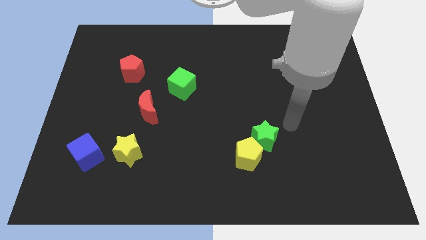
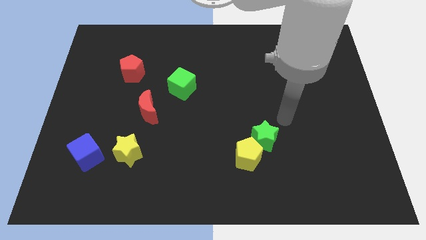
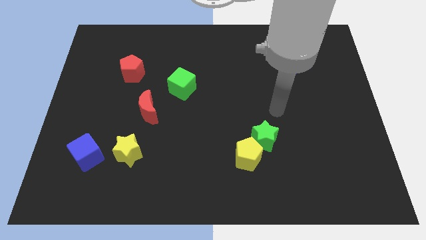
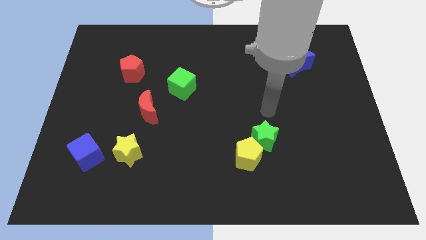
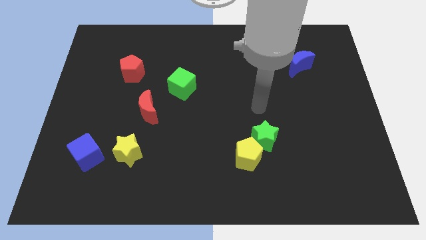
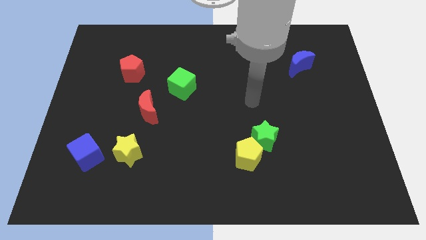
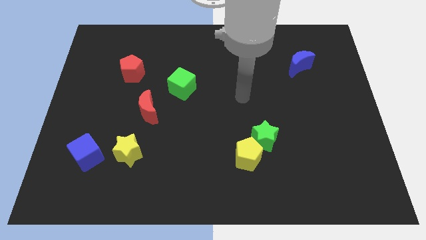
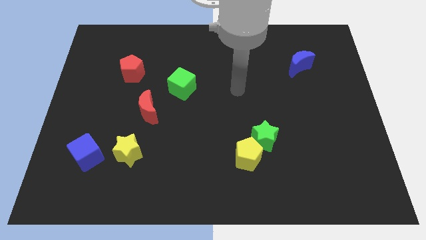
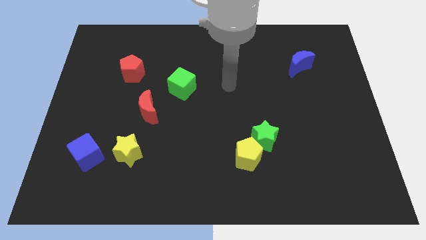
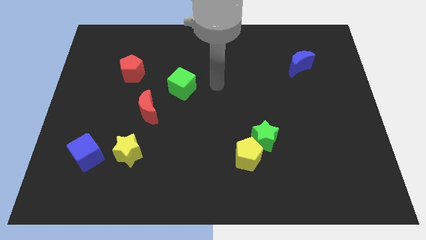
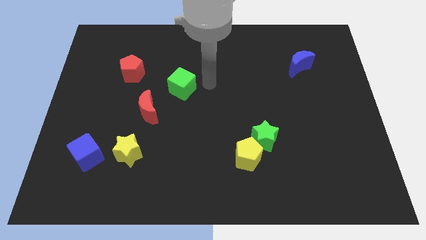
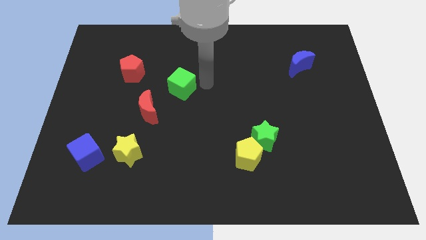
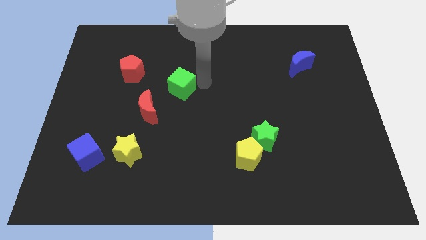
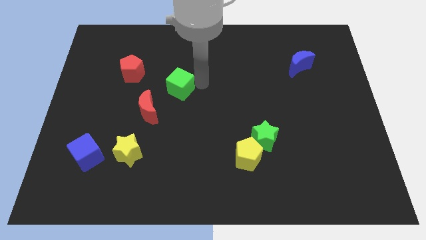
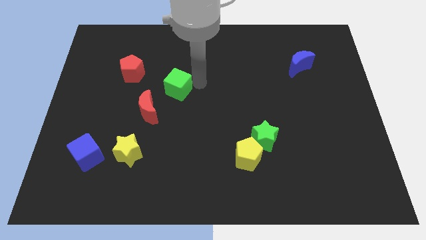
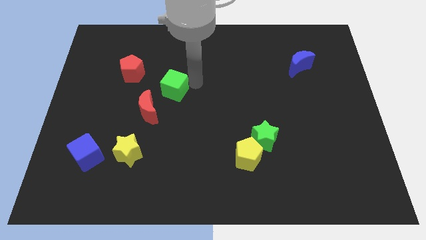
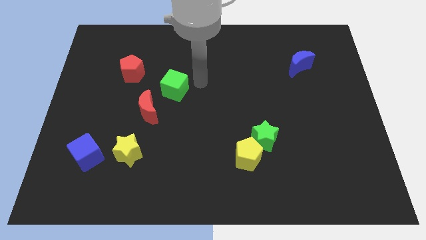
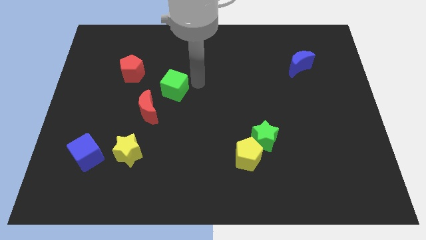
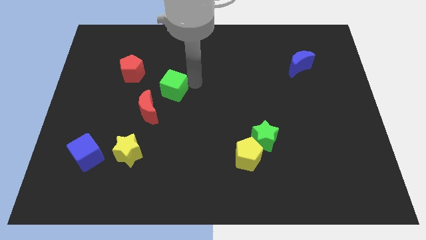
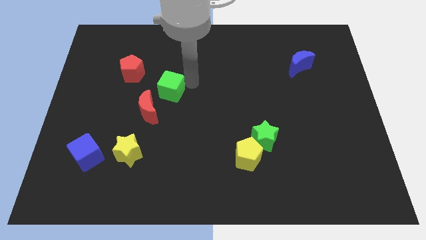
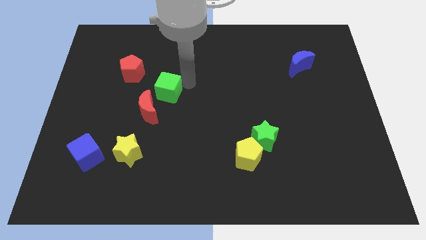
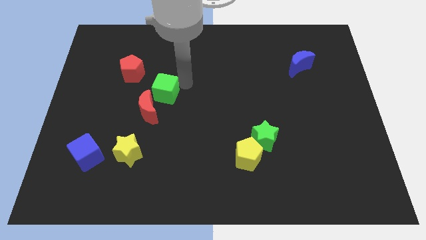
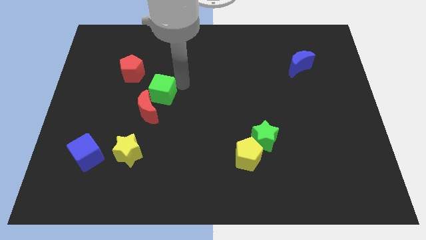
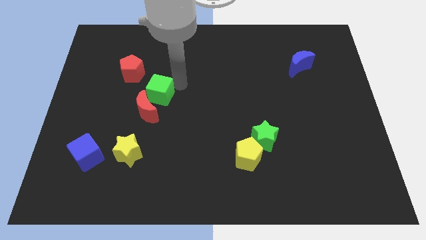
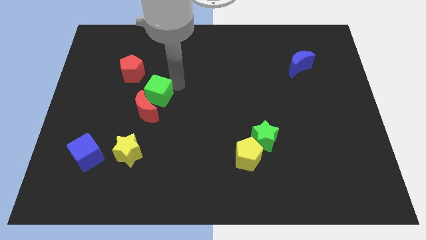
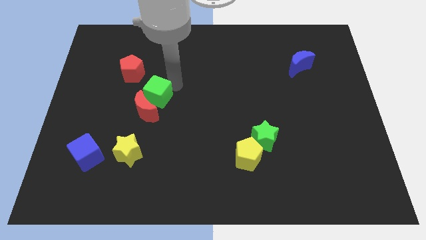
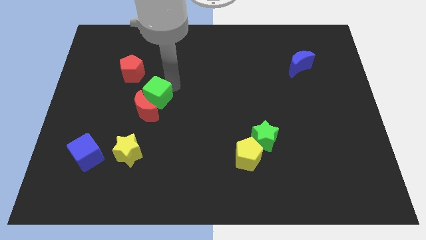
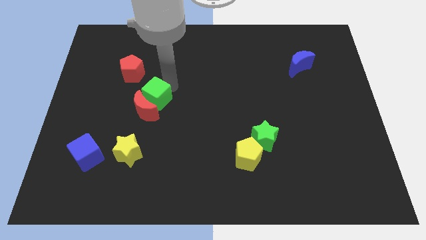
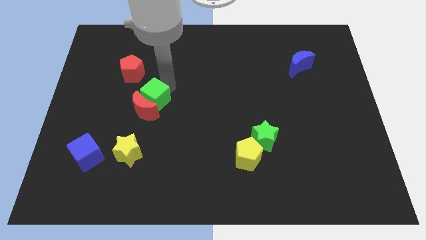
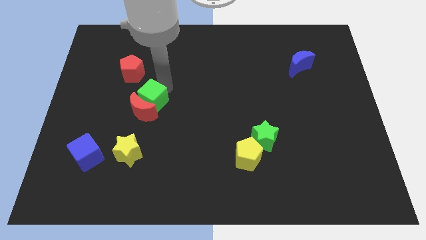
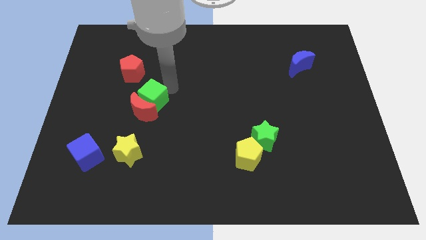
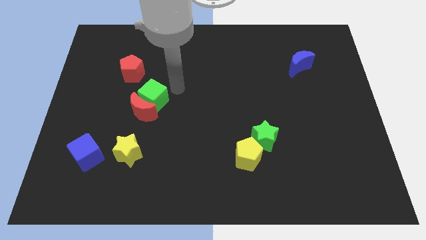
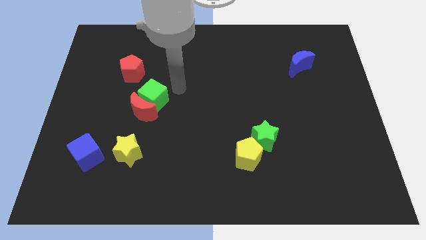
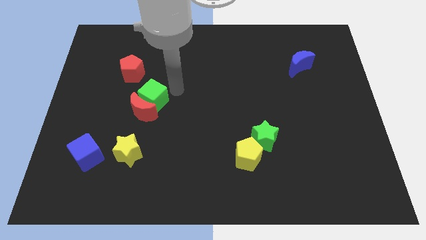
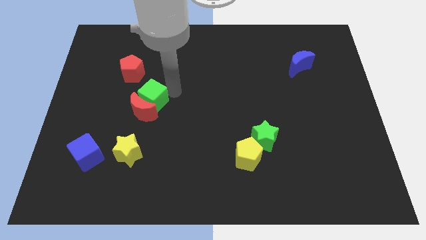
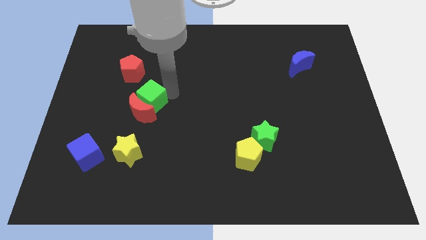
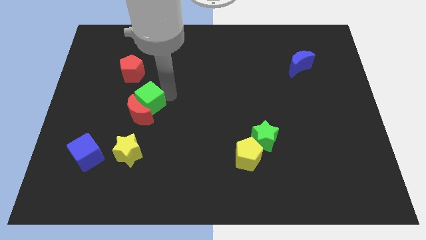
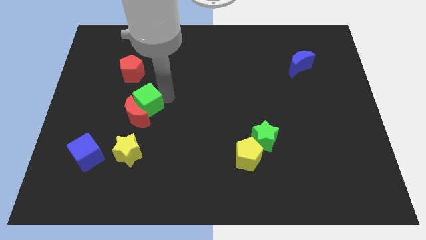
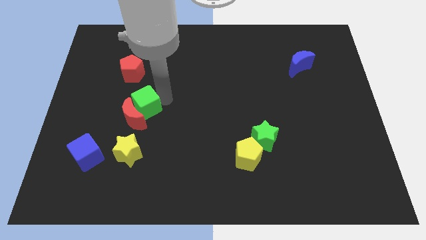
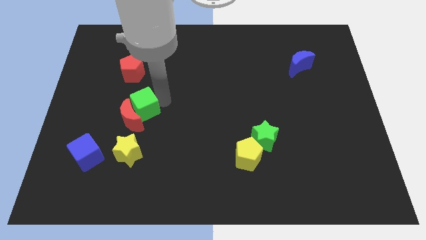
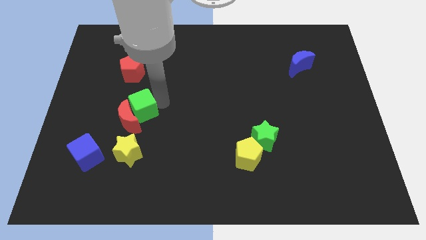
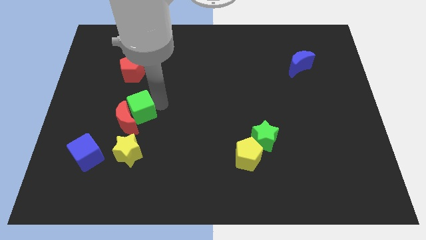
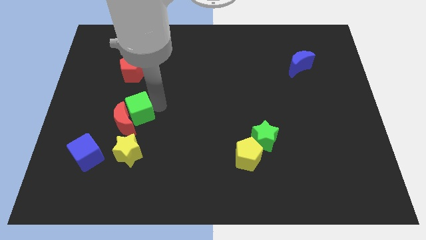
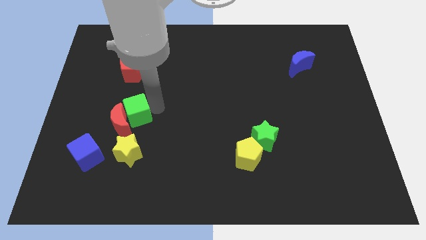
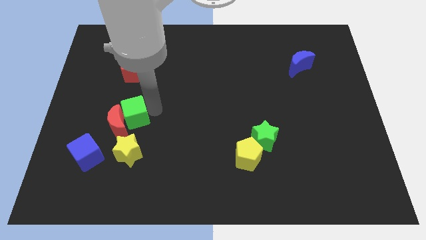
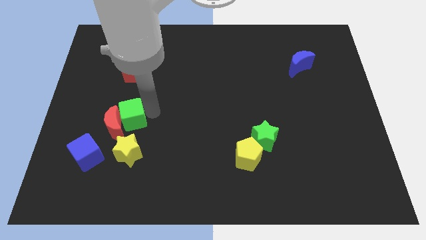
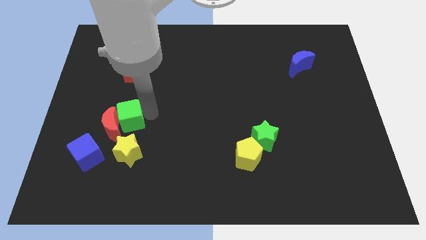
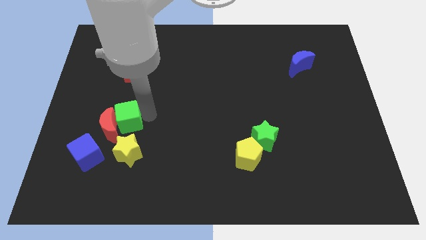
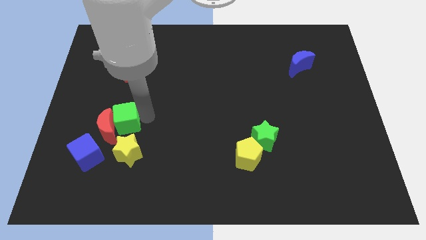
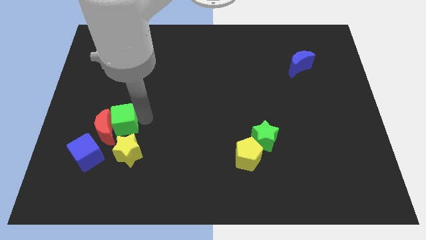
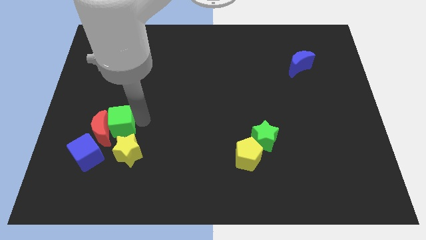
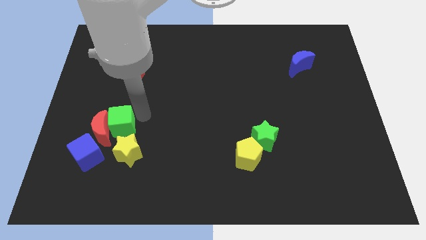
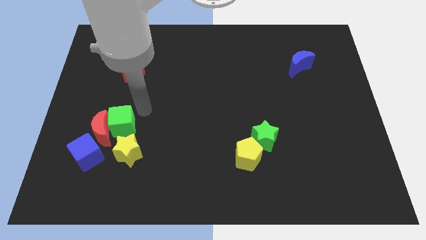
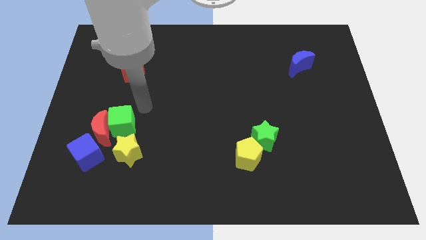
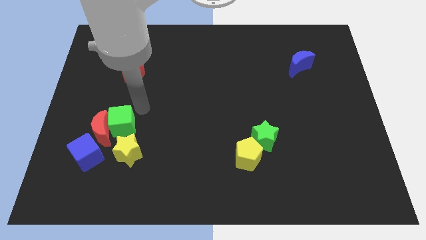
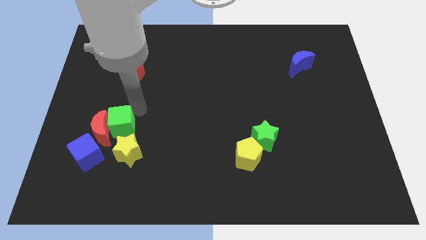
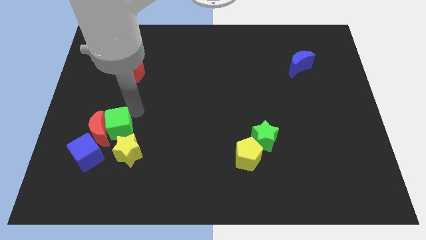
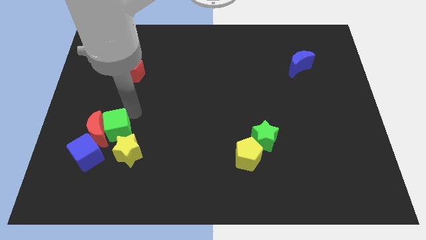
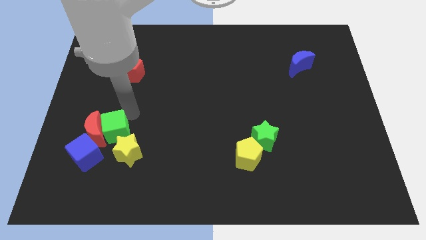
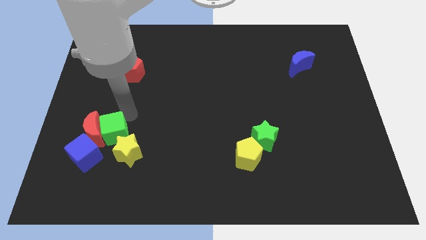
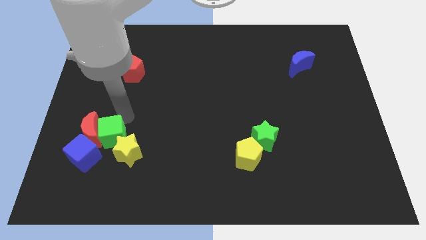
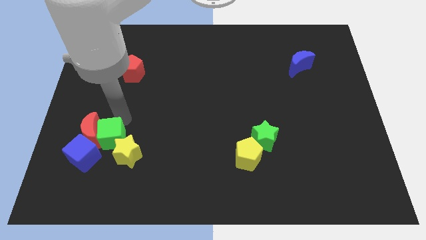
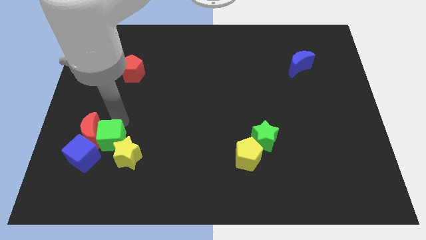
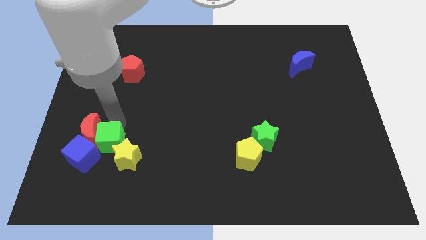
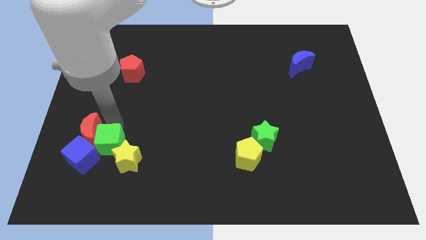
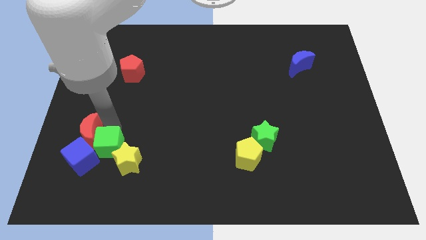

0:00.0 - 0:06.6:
move the green cube towards the blue cube

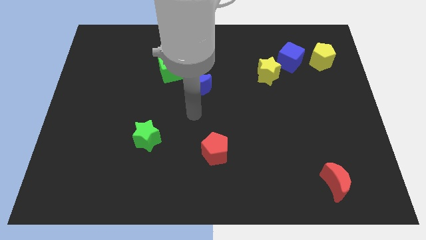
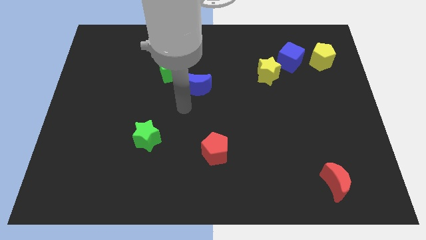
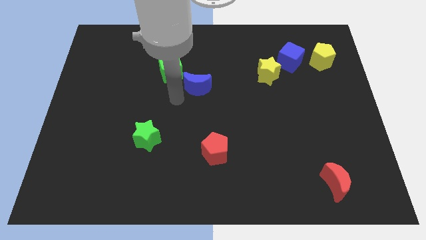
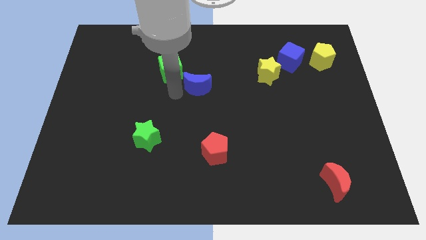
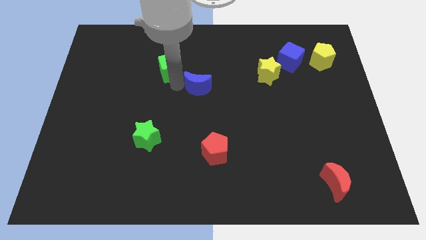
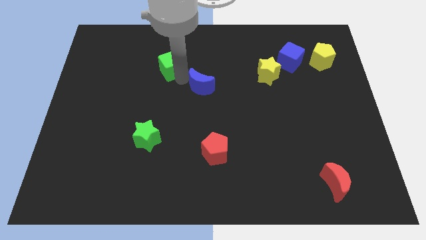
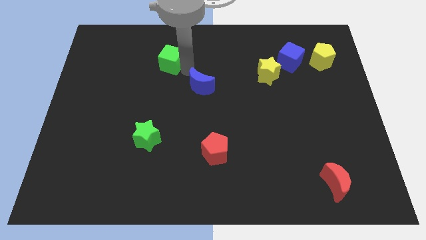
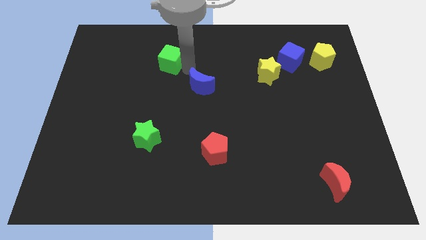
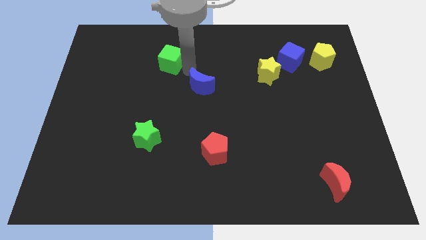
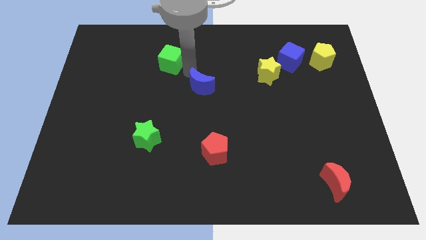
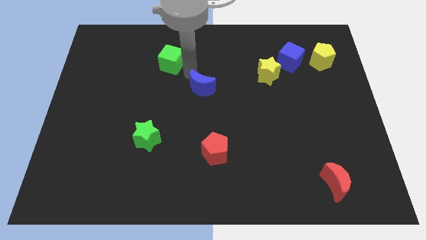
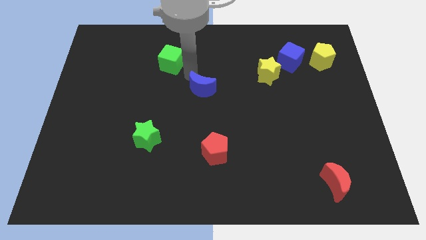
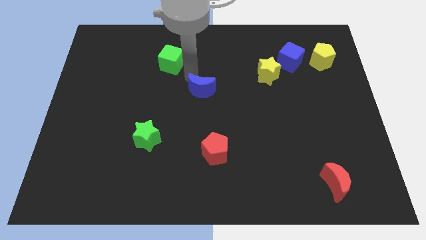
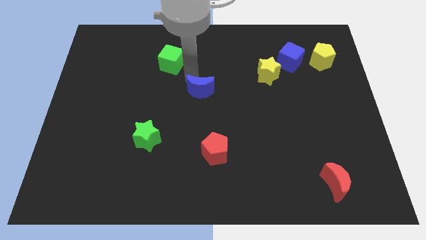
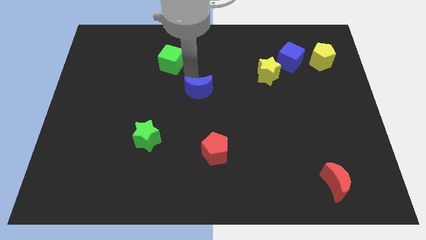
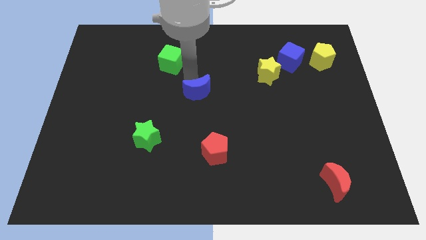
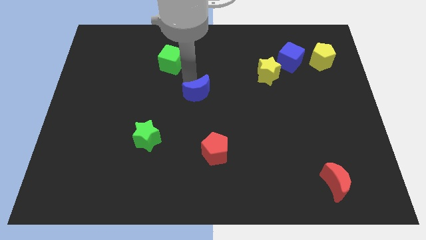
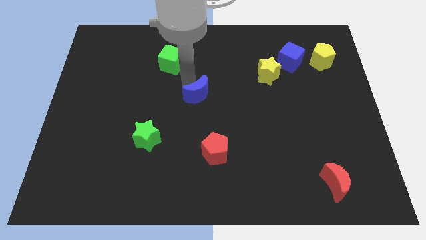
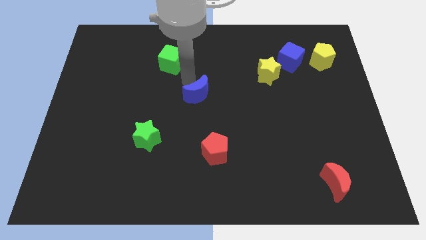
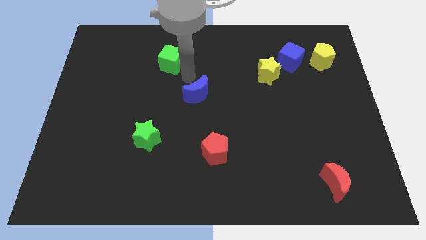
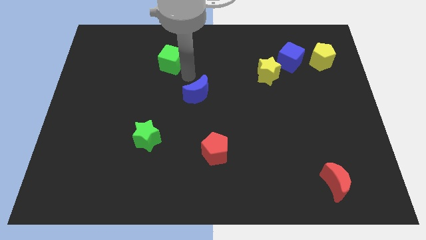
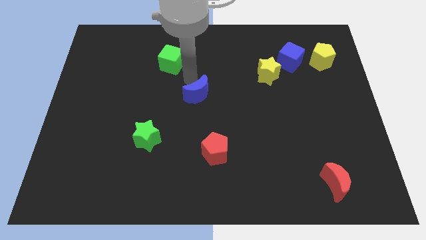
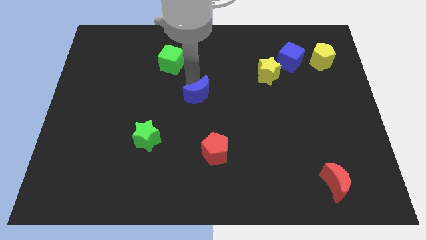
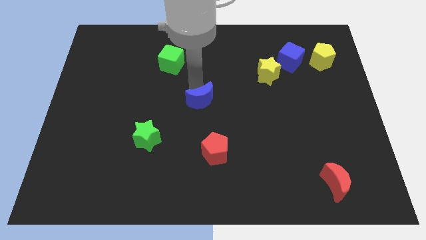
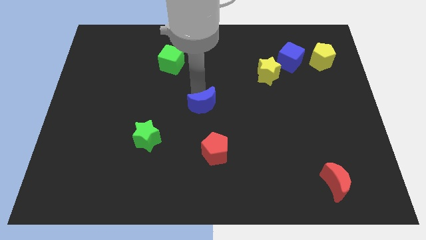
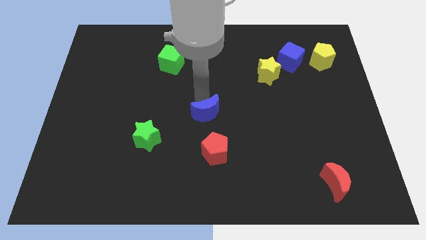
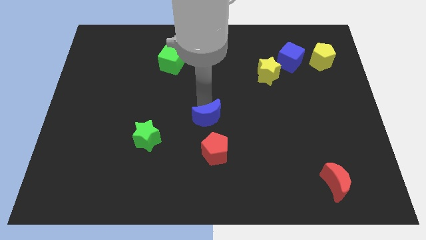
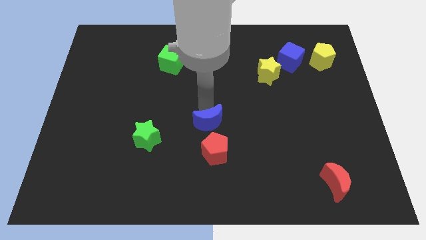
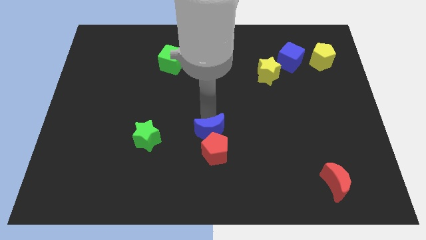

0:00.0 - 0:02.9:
push the blue moon next to the red pentagon
